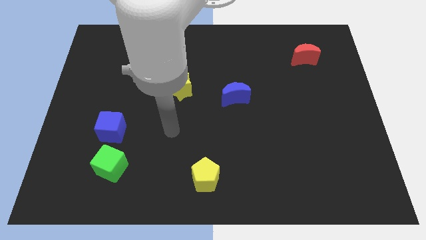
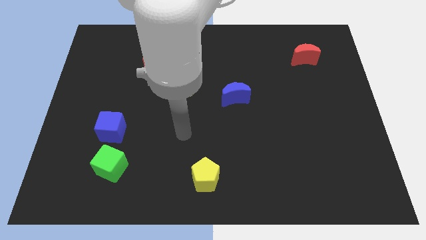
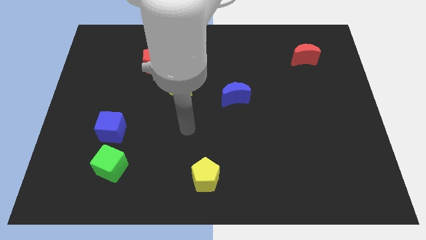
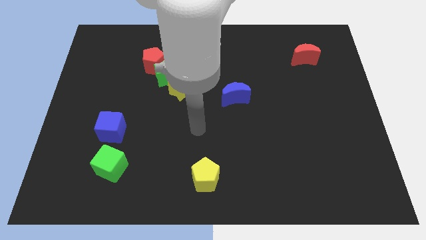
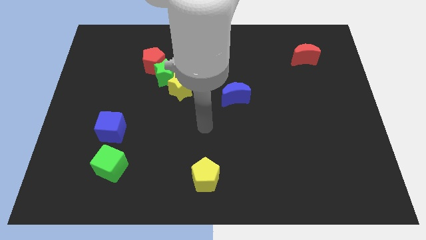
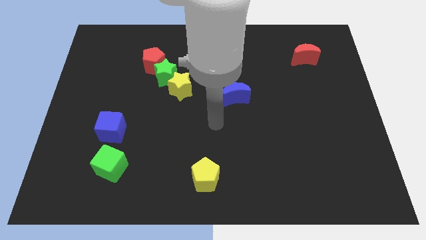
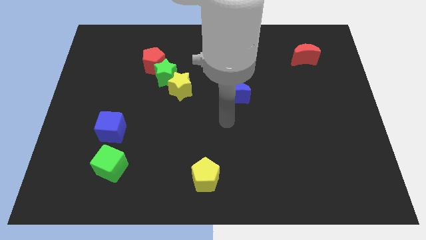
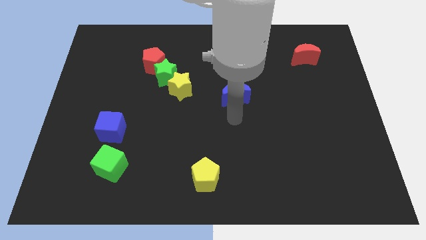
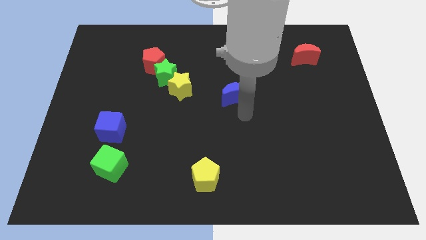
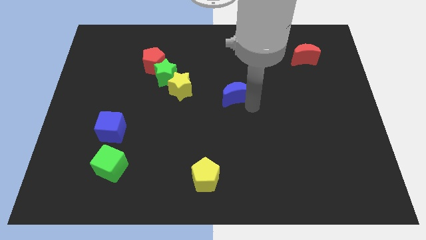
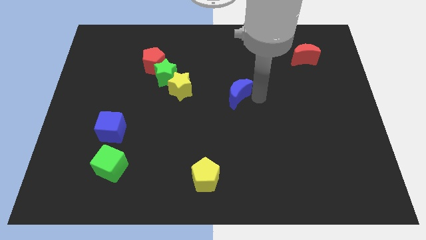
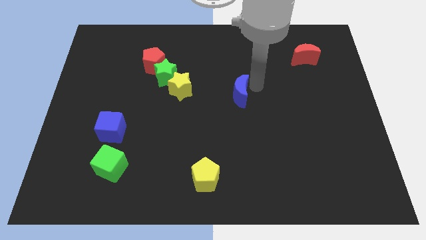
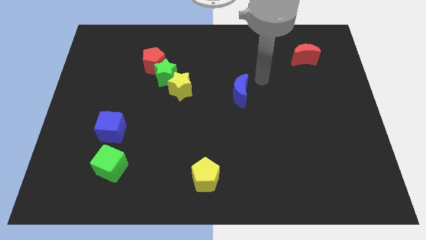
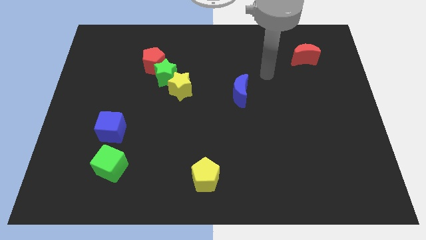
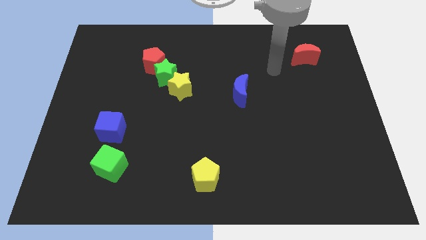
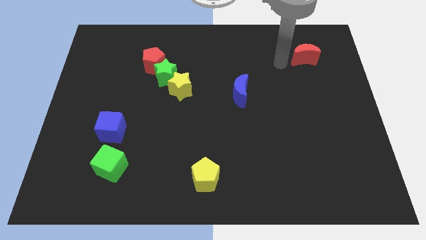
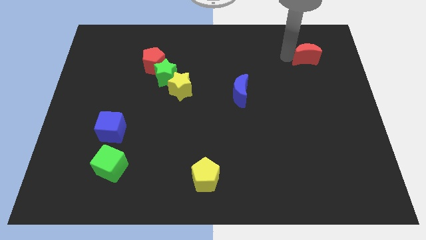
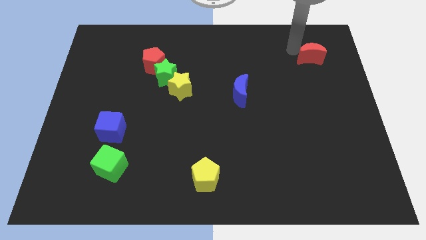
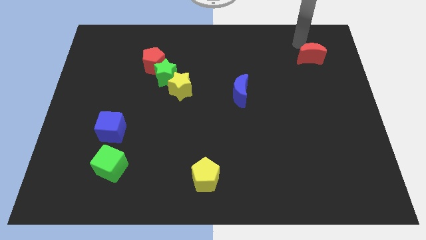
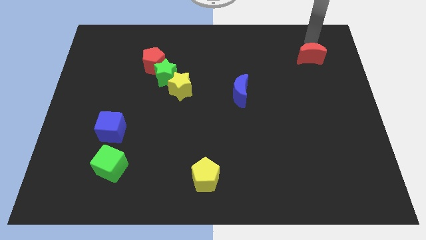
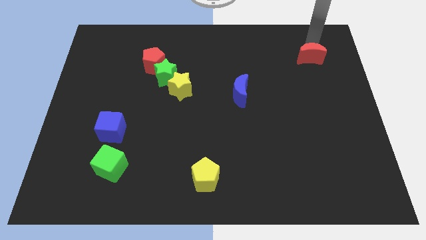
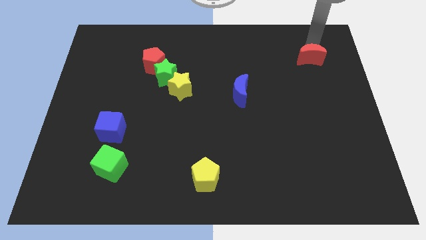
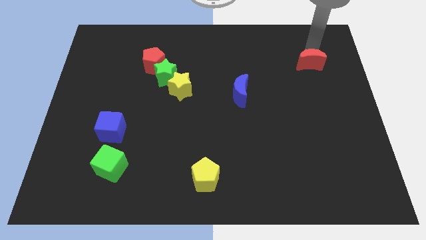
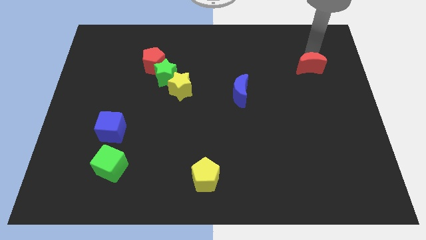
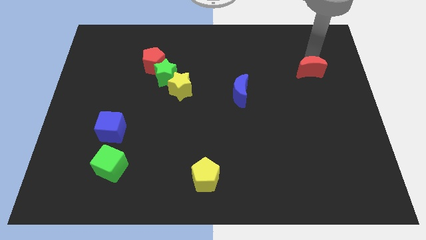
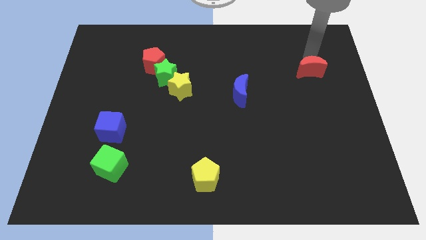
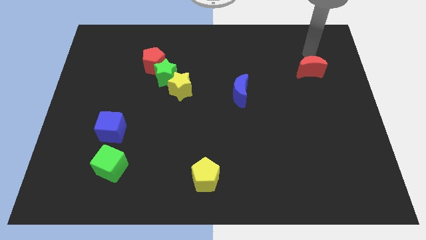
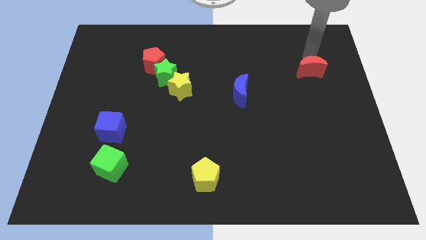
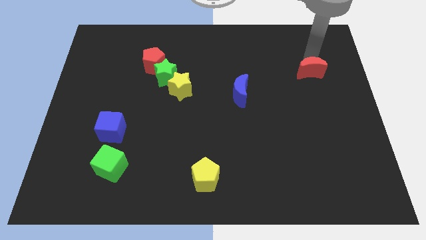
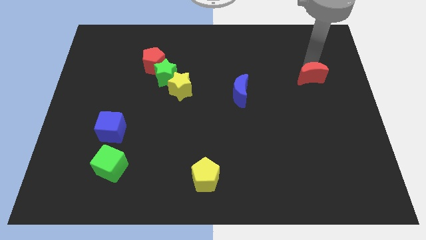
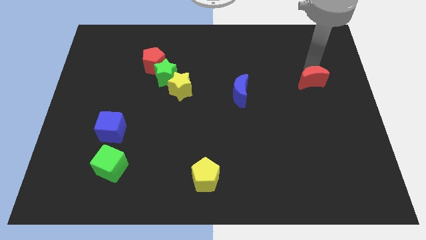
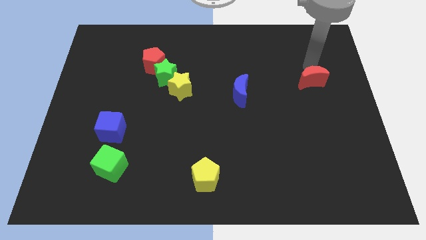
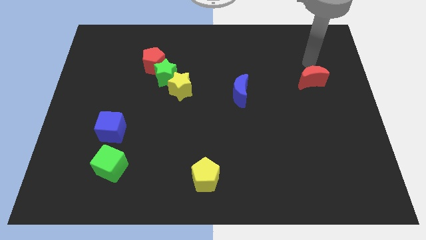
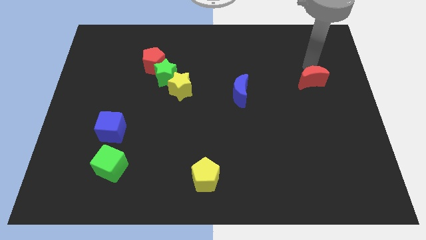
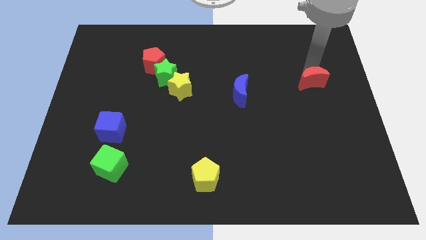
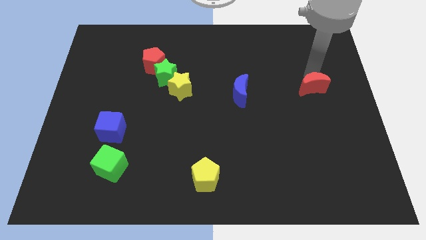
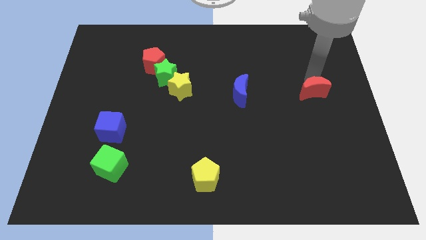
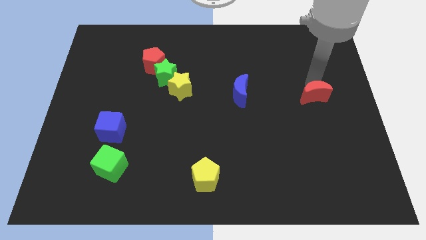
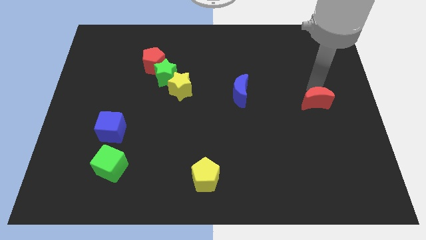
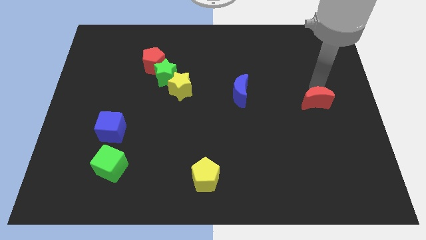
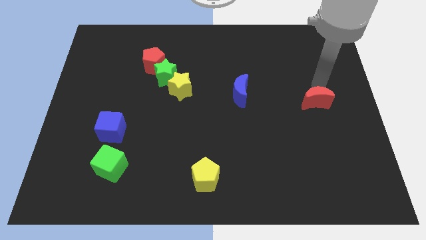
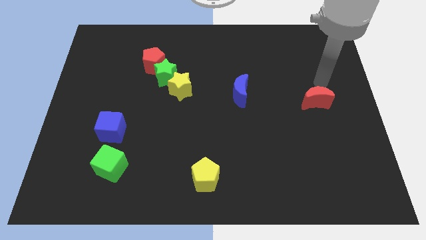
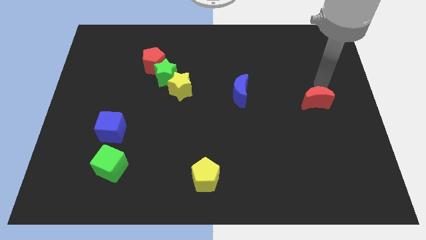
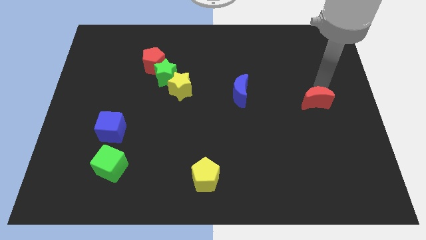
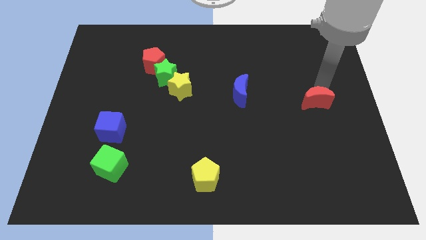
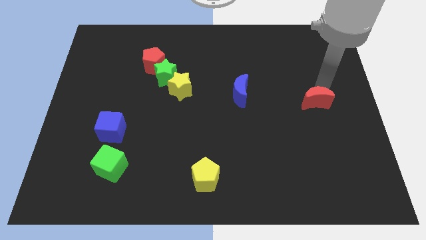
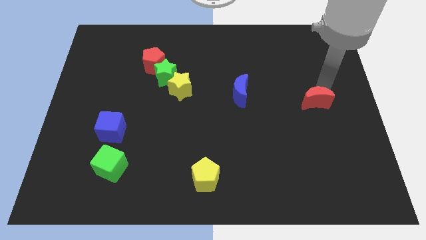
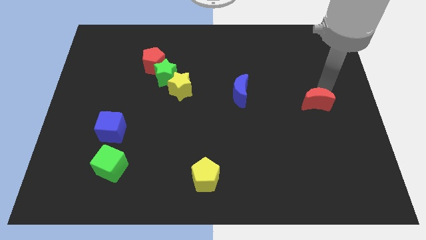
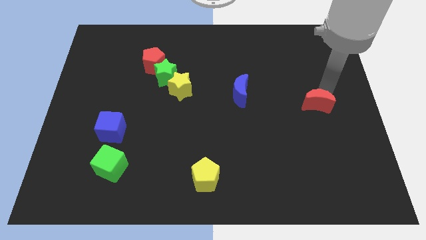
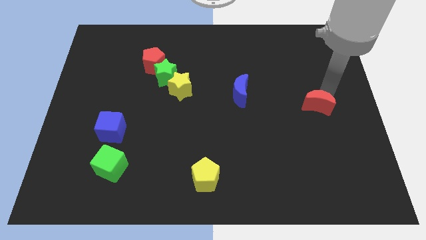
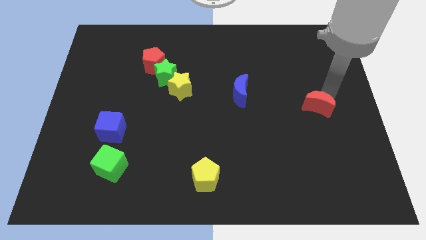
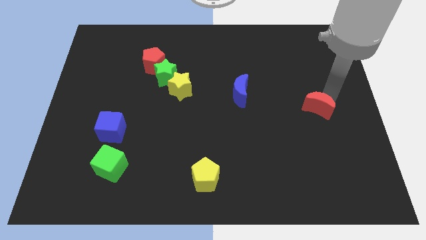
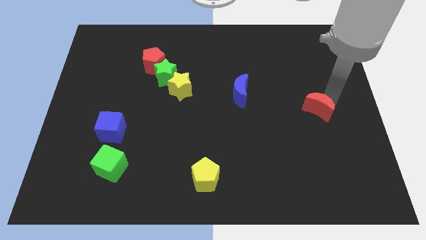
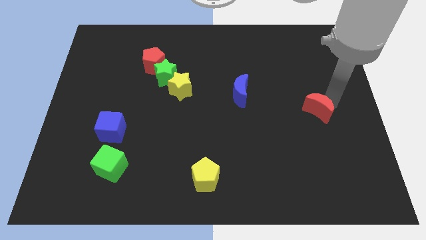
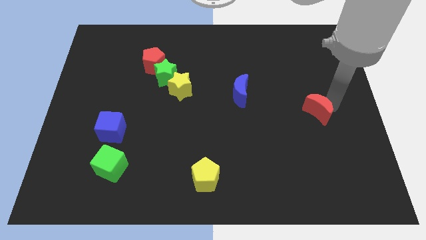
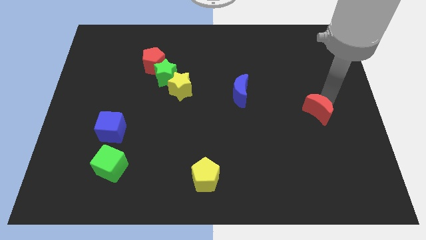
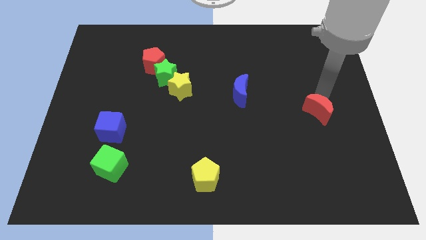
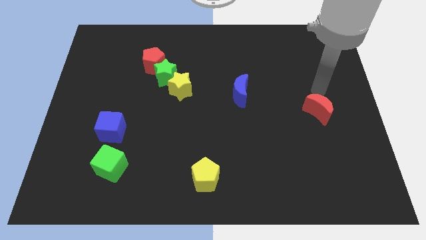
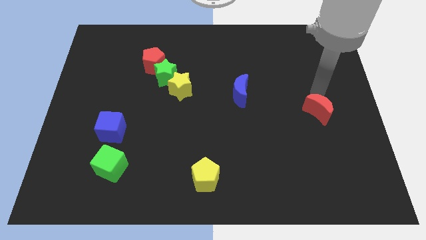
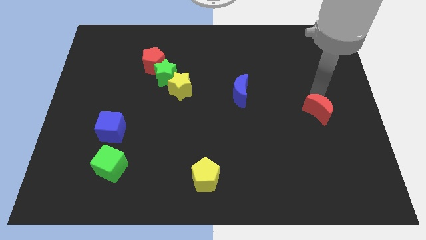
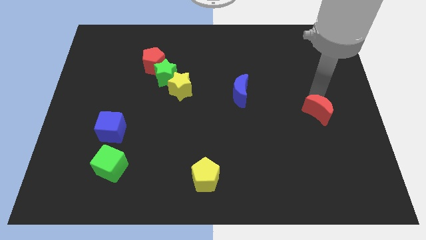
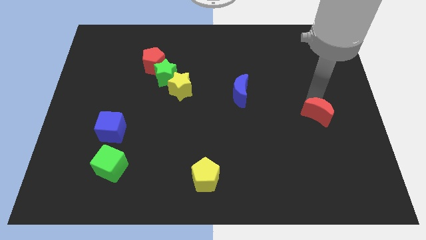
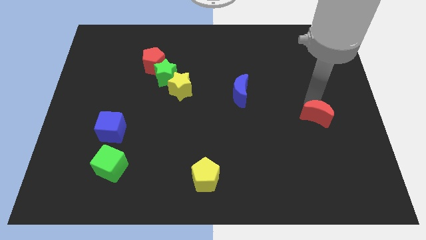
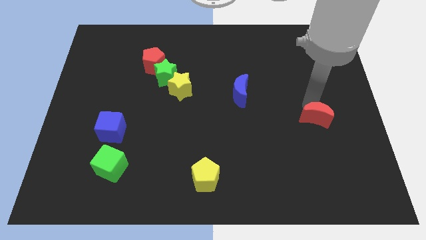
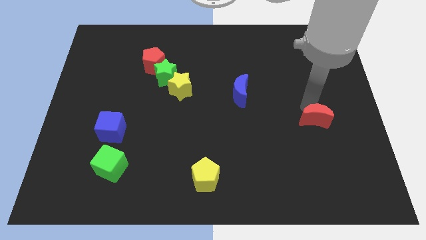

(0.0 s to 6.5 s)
move the red moon downwards

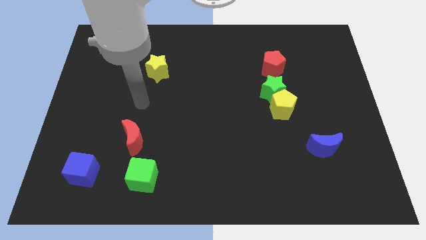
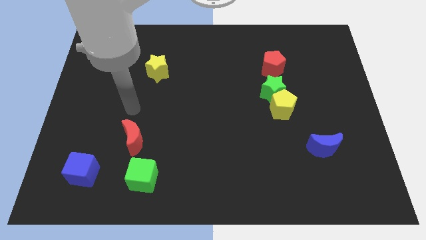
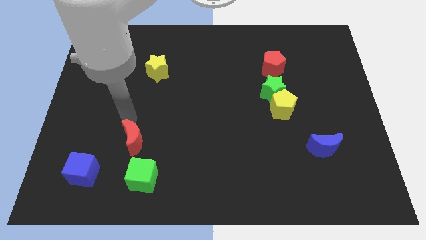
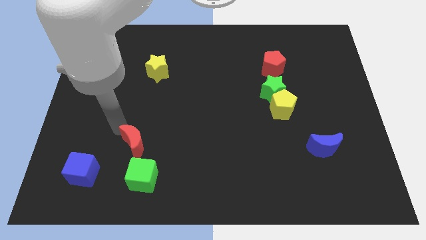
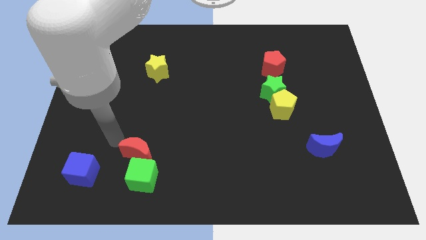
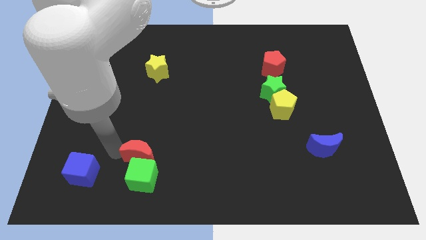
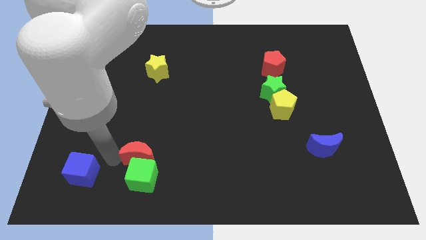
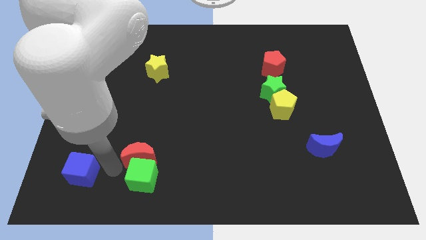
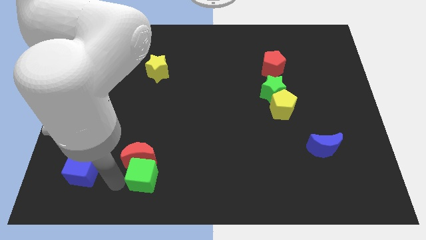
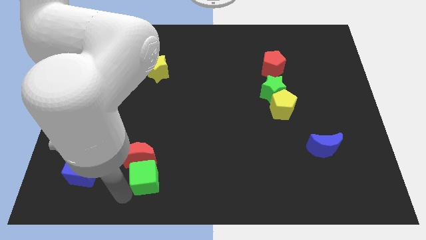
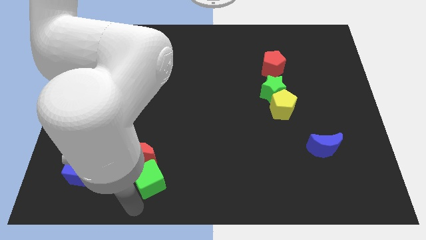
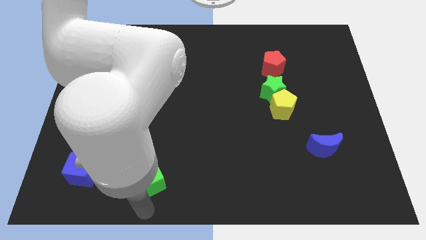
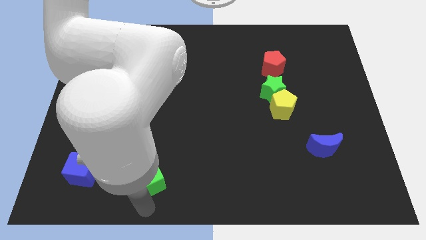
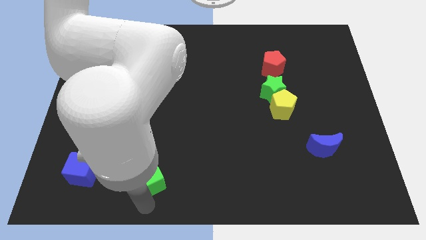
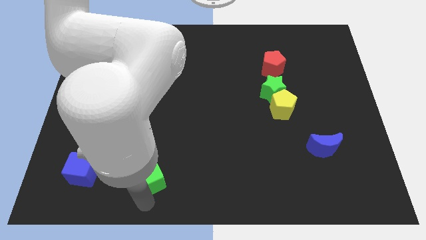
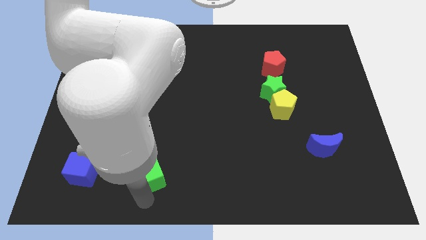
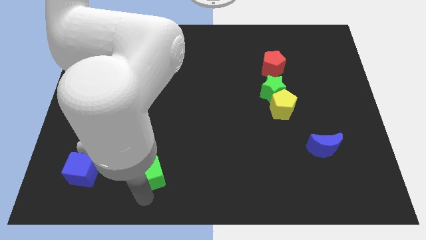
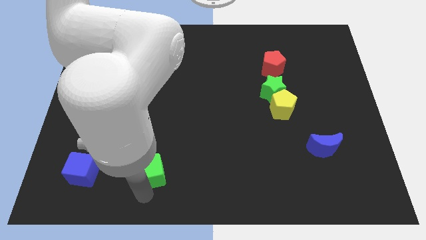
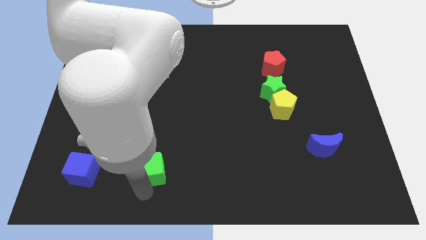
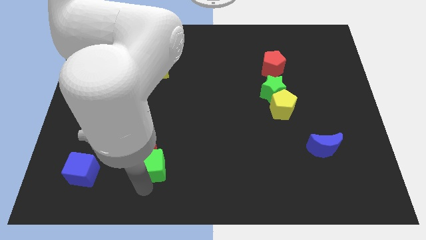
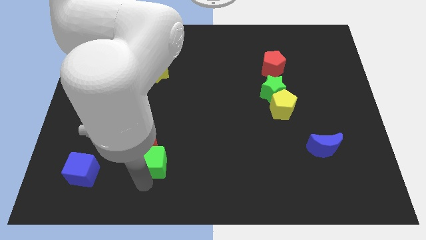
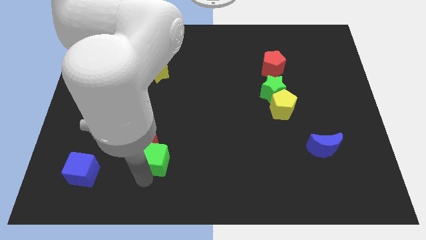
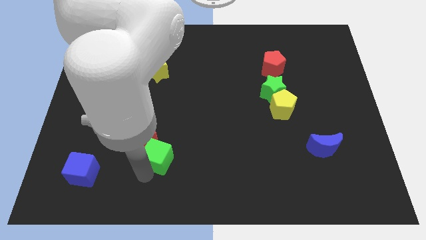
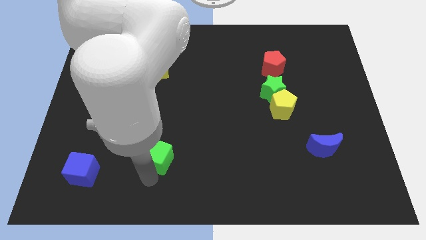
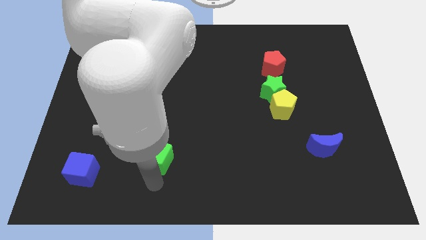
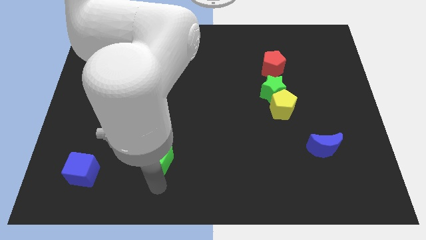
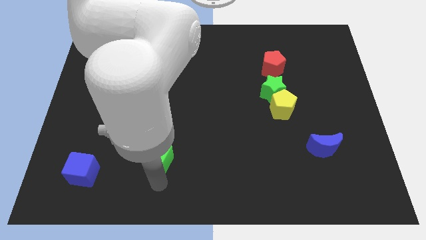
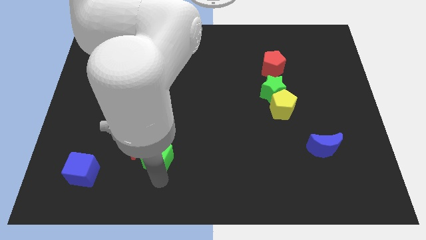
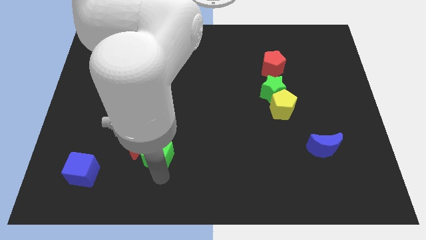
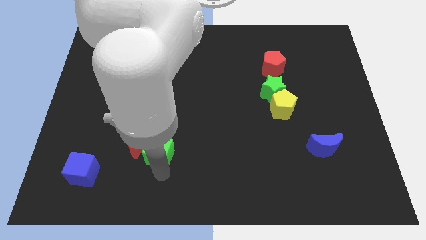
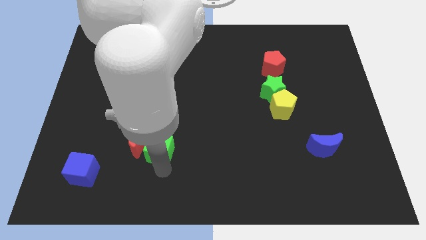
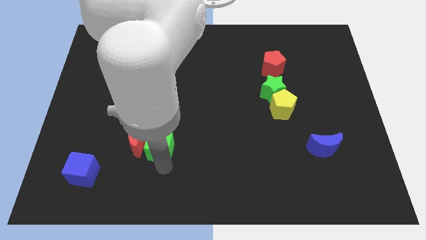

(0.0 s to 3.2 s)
move the green cube slightly upwards
